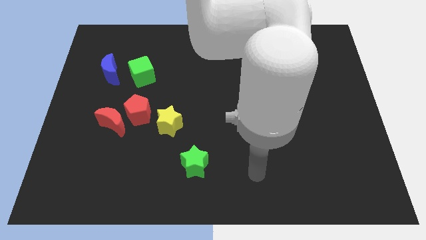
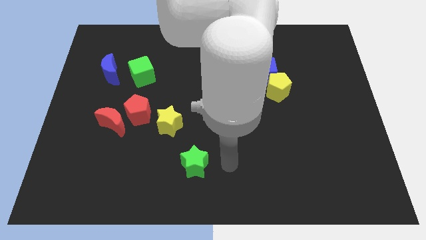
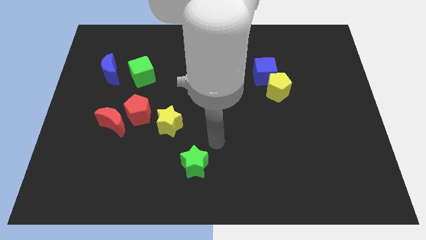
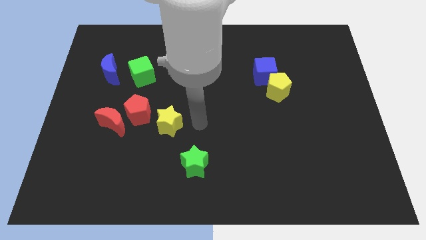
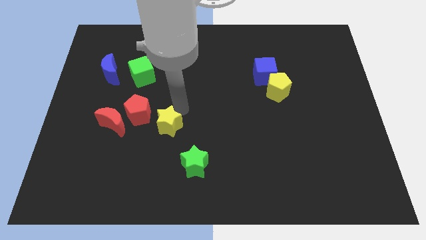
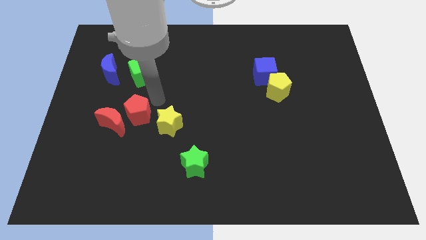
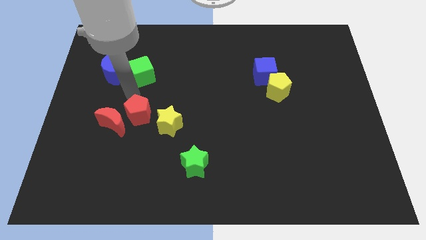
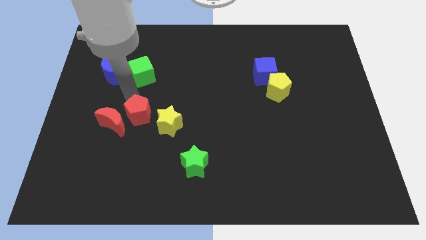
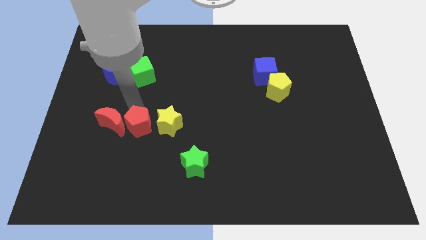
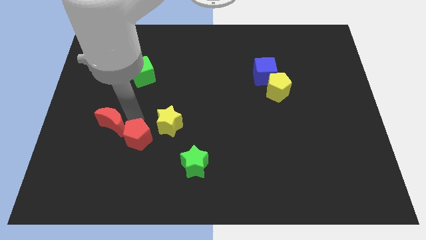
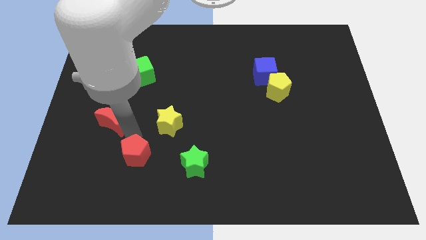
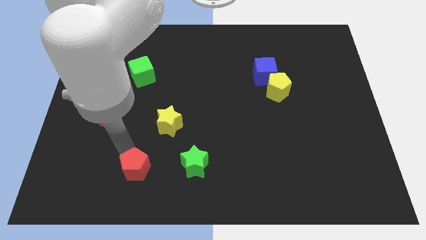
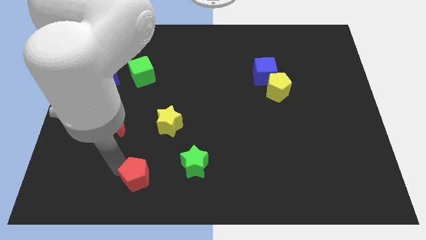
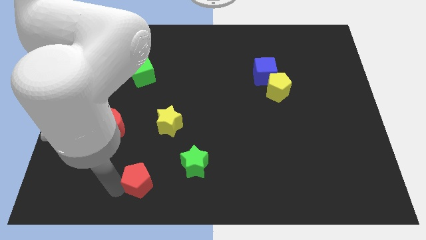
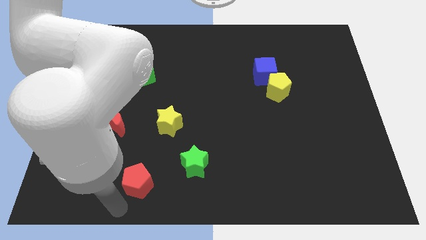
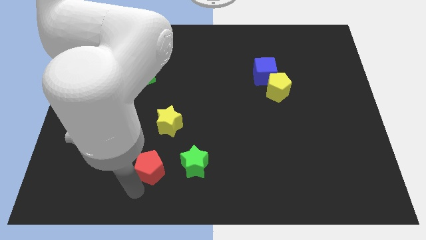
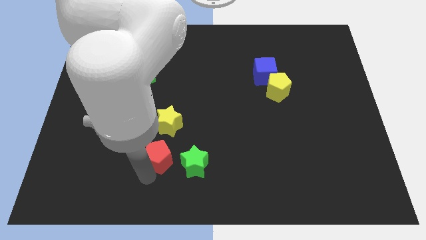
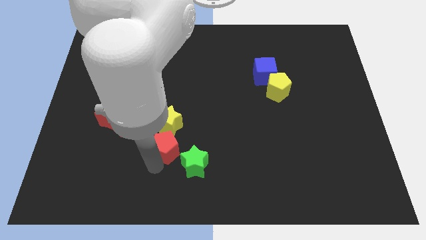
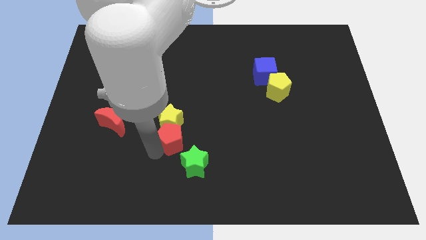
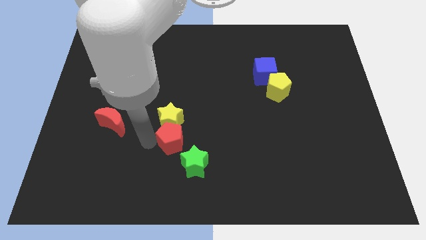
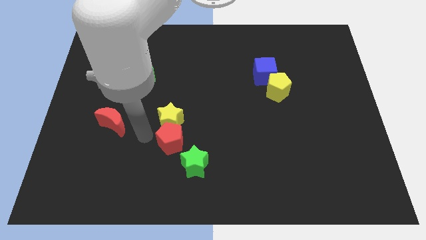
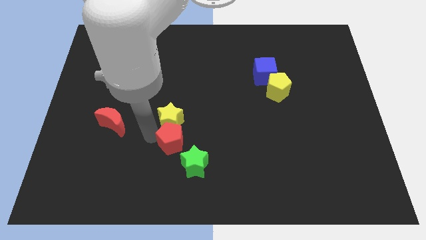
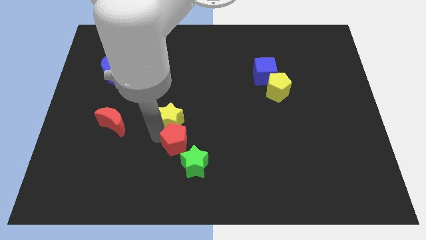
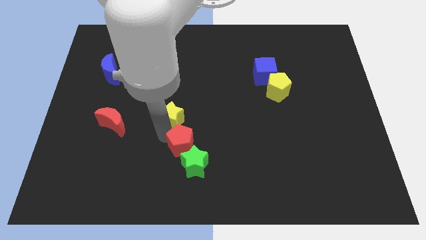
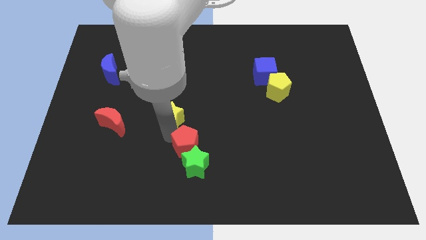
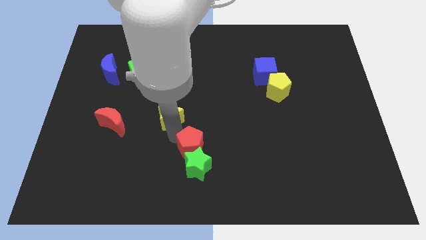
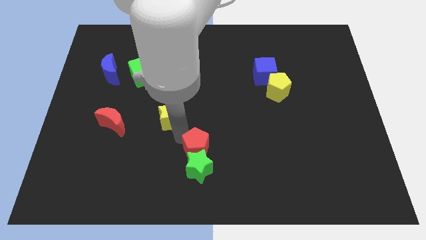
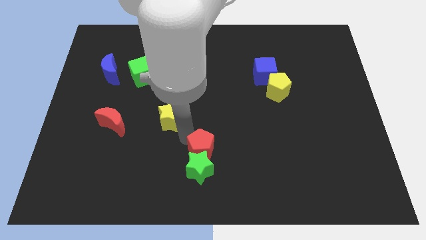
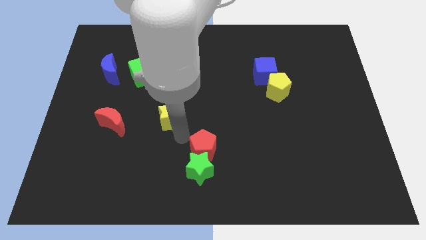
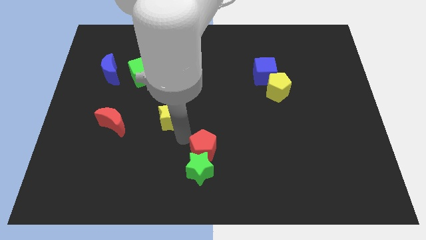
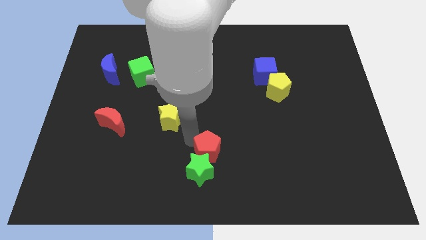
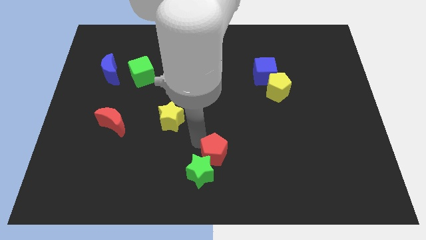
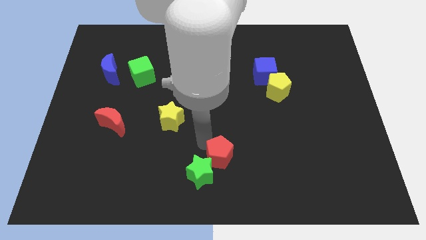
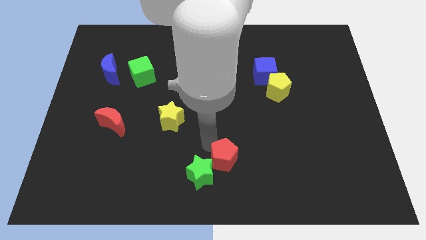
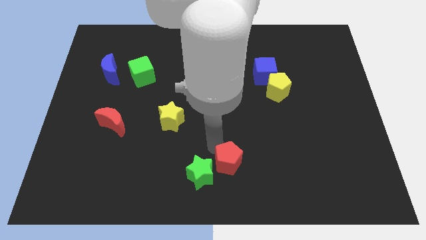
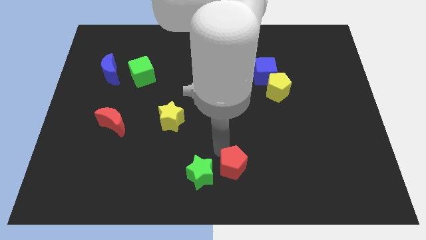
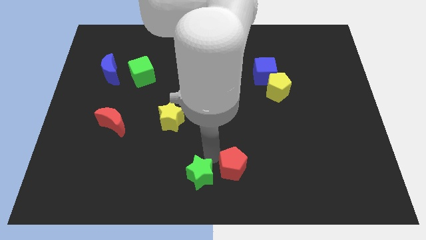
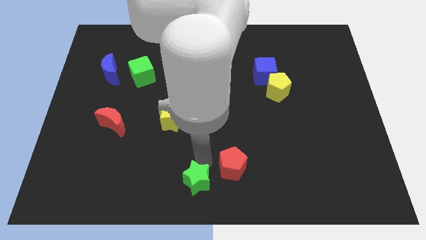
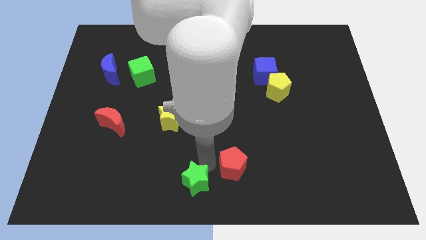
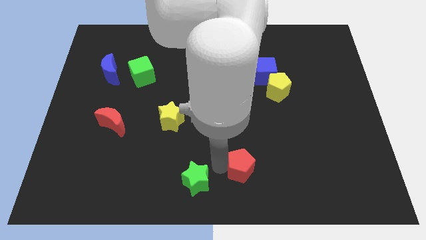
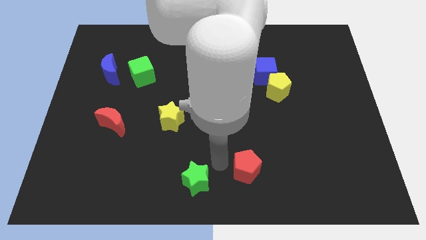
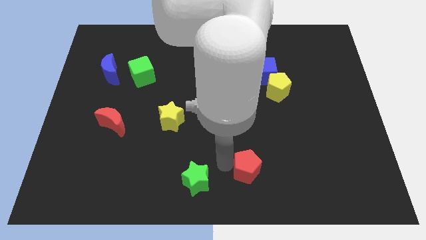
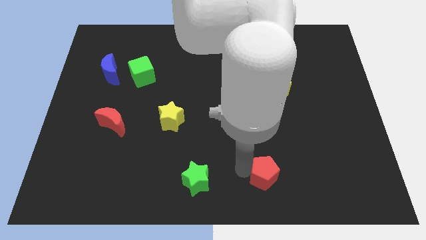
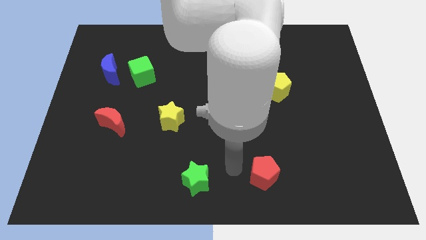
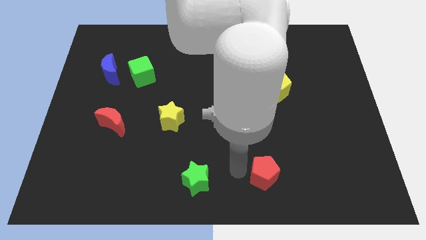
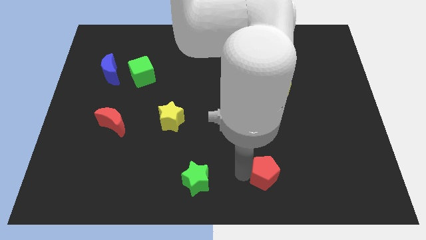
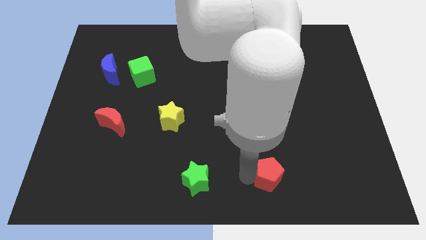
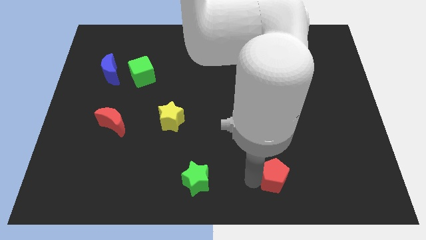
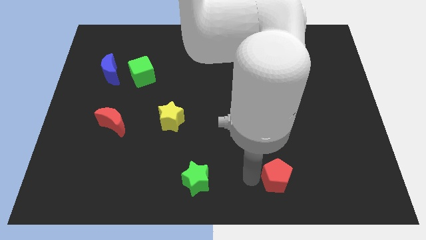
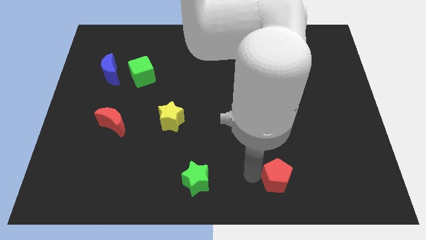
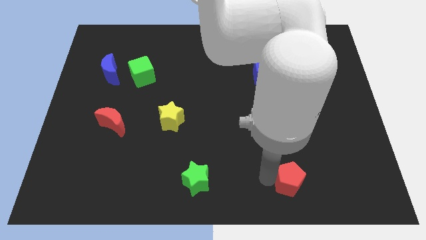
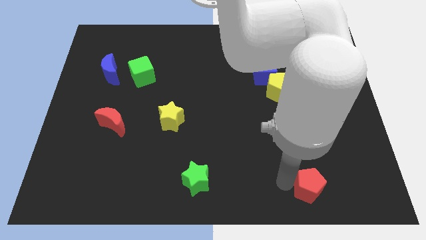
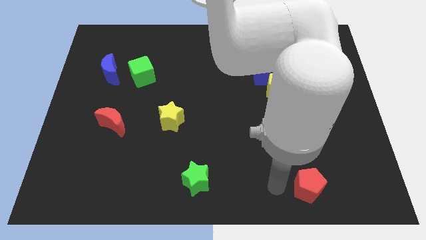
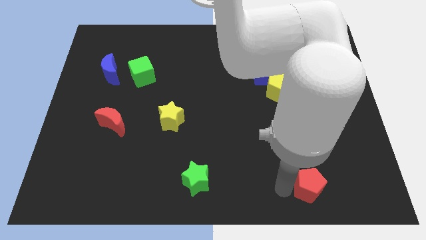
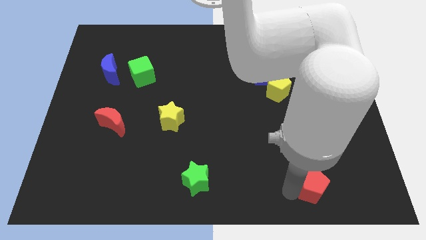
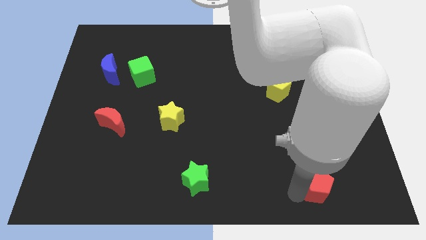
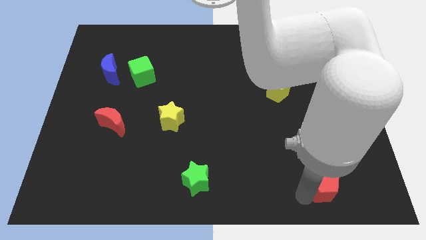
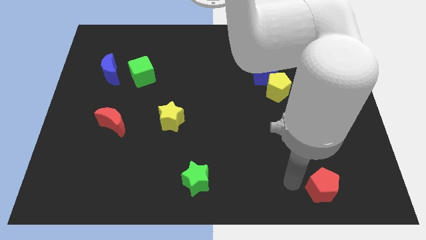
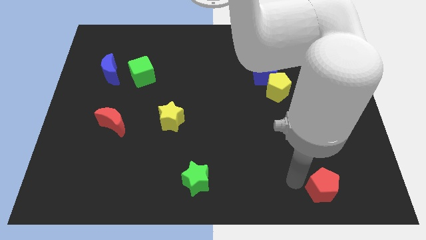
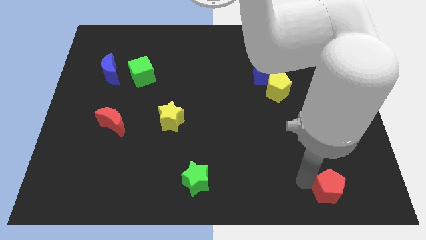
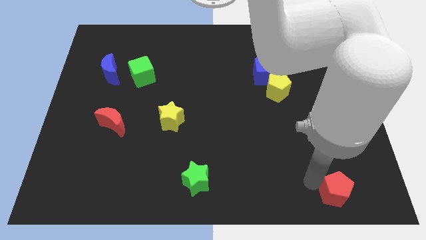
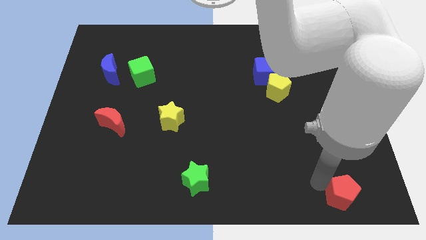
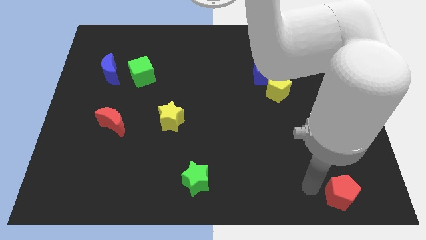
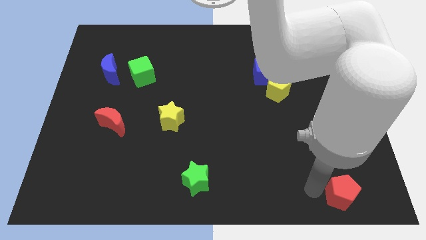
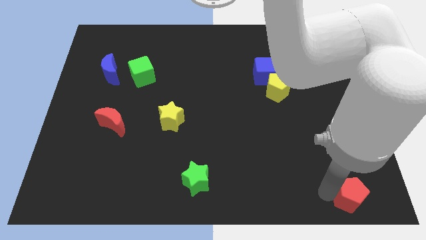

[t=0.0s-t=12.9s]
slide the red pentagon to the bottom right of the board

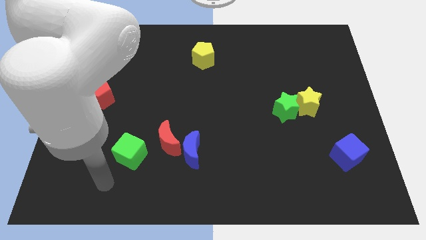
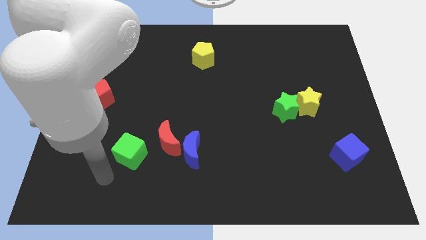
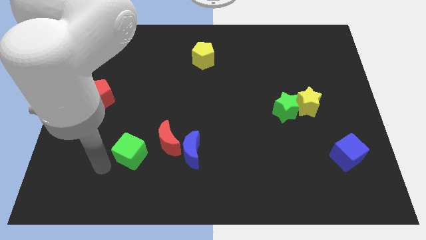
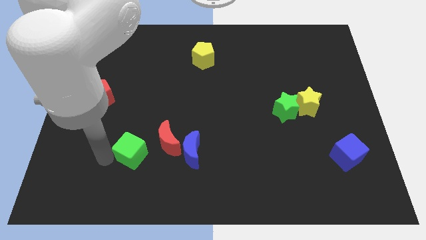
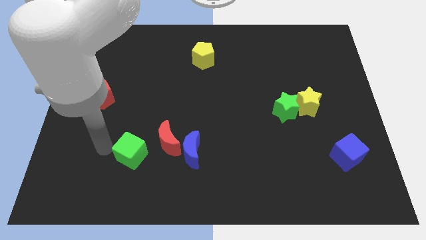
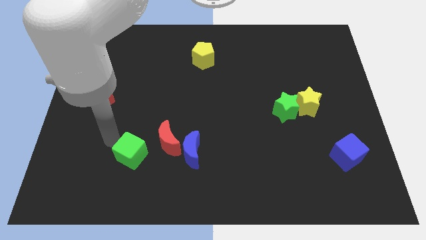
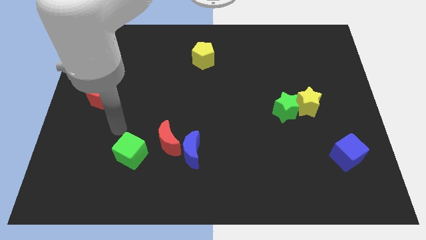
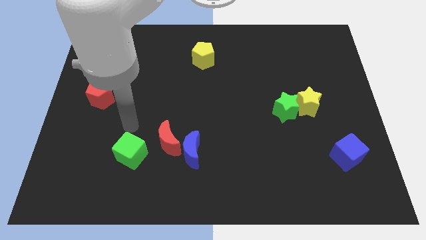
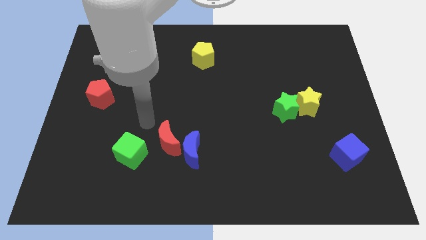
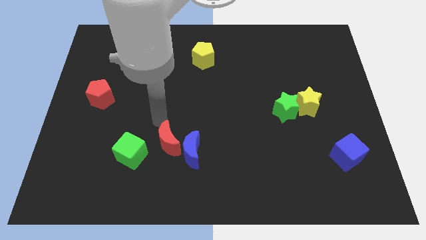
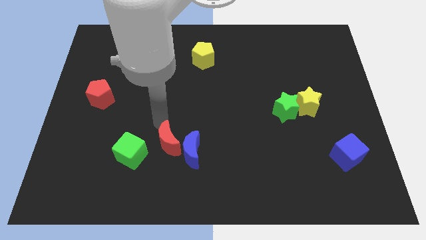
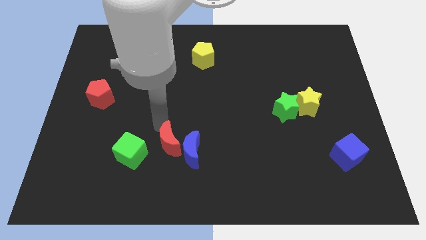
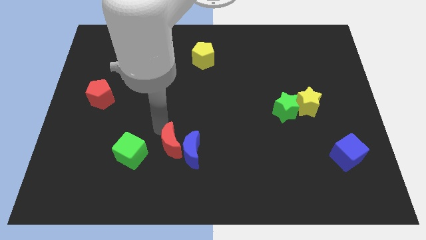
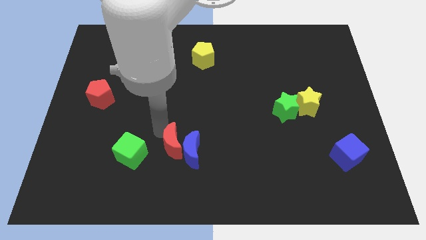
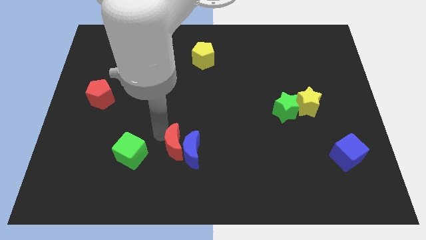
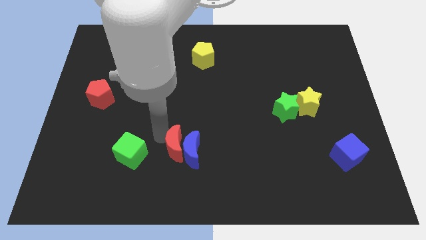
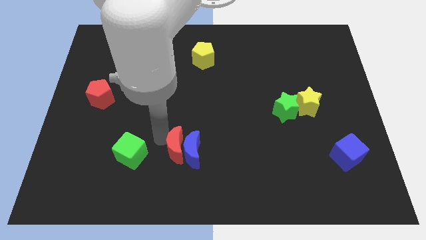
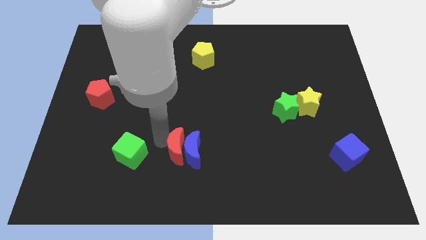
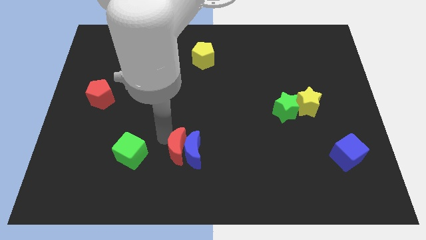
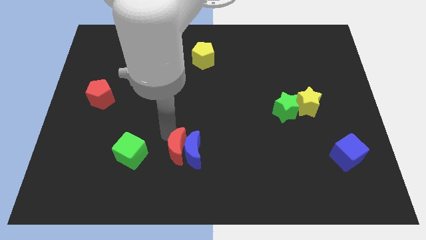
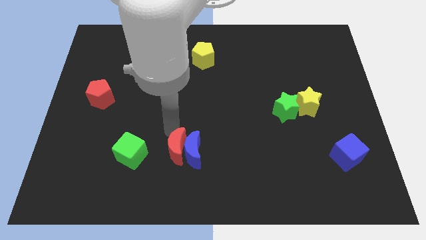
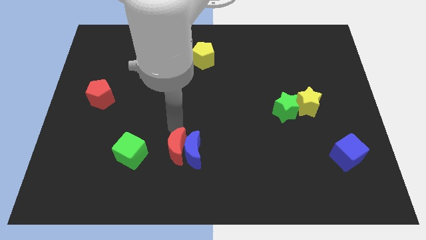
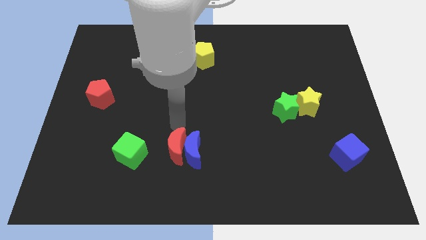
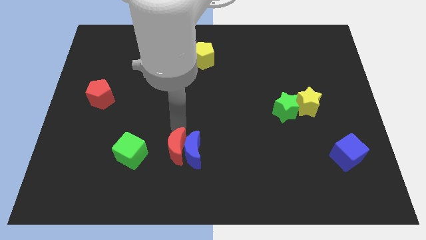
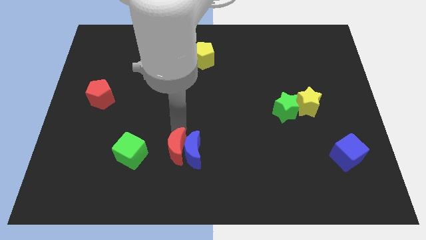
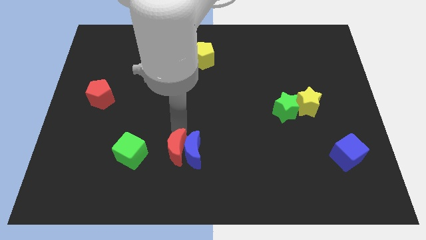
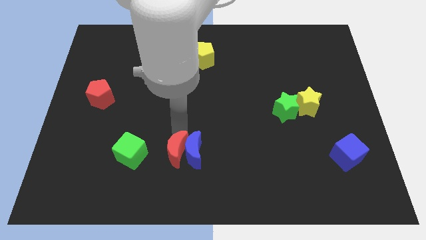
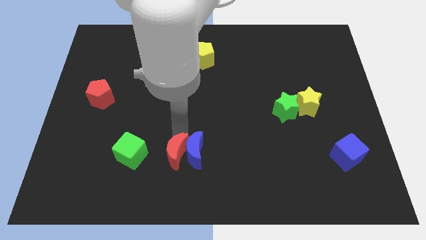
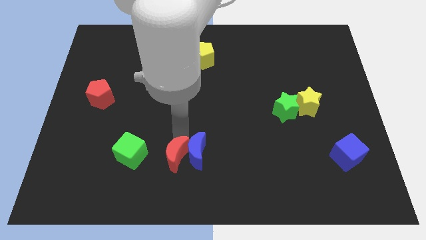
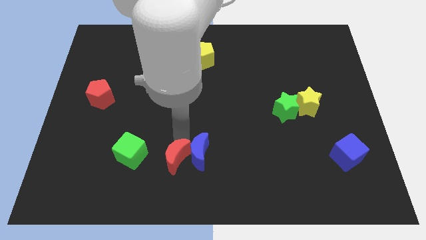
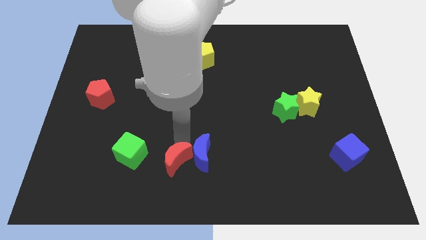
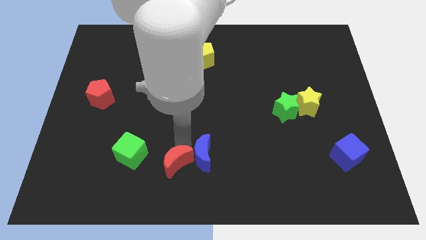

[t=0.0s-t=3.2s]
push the red moon to the bottom
